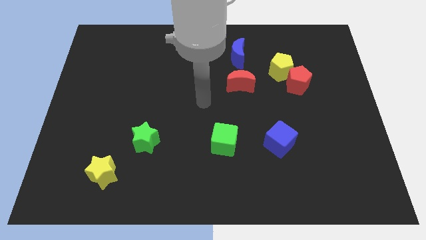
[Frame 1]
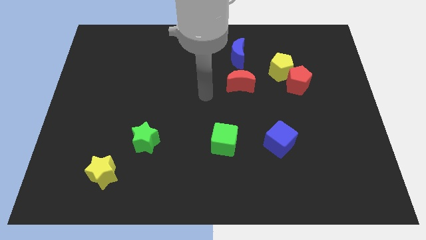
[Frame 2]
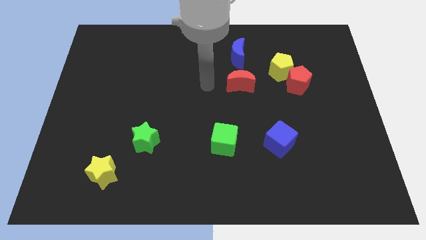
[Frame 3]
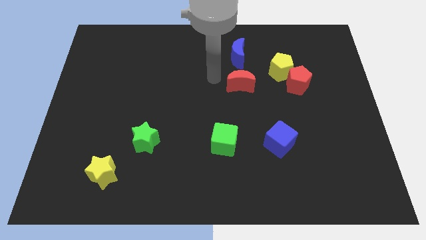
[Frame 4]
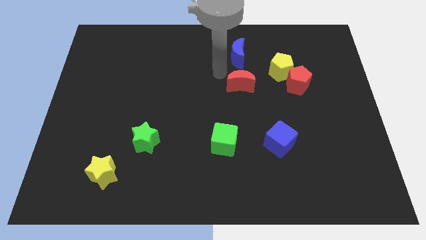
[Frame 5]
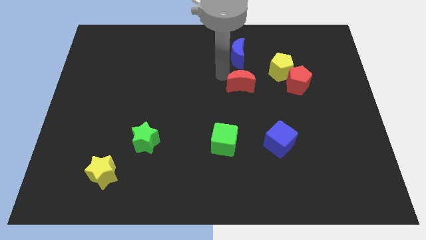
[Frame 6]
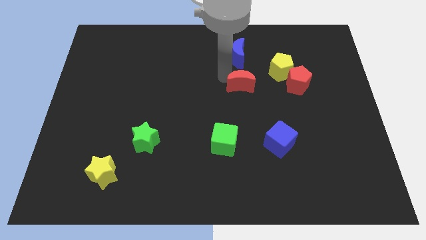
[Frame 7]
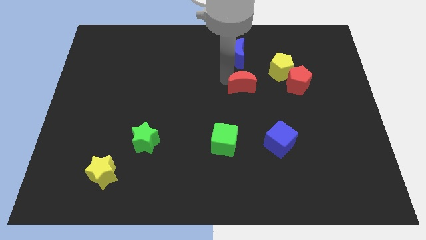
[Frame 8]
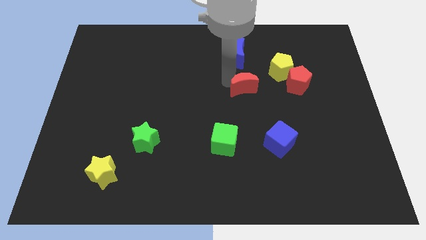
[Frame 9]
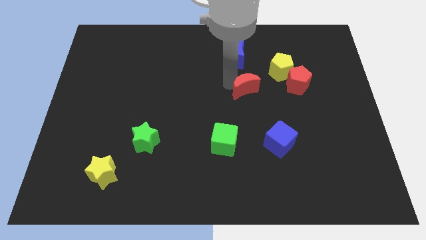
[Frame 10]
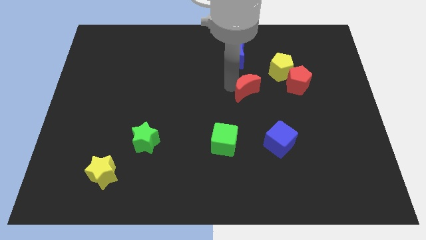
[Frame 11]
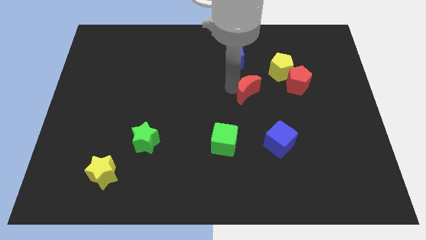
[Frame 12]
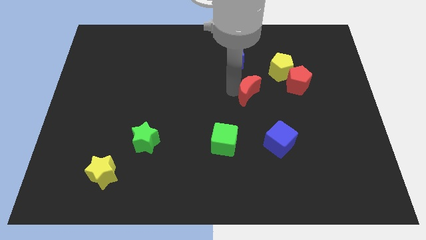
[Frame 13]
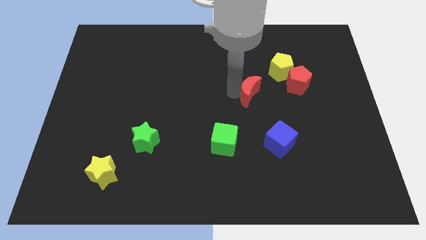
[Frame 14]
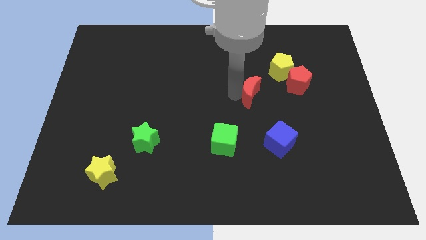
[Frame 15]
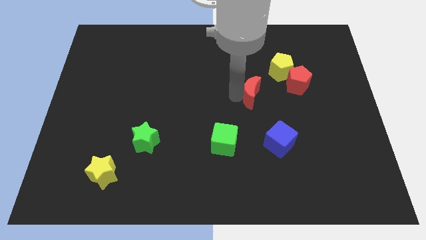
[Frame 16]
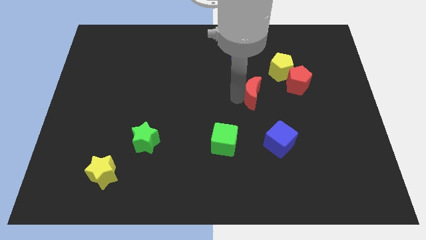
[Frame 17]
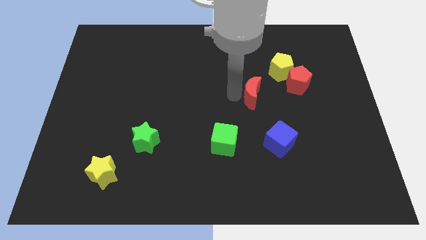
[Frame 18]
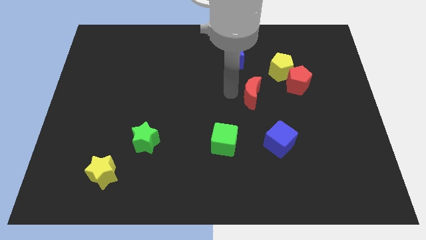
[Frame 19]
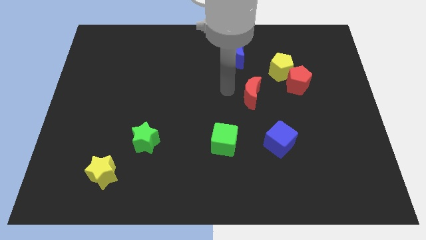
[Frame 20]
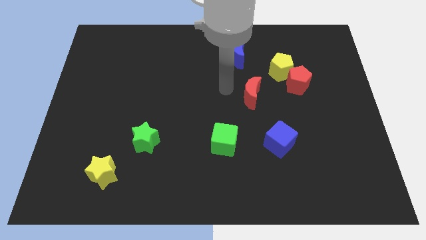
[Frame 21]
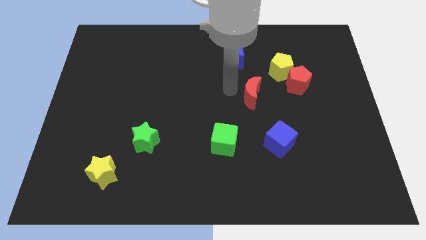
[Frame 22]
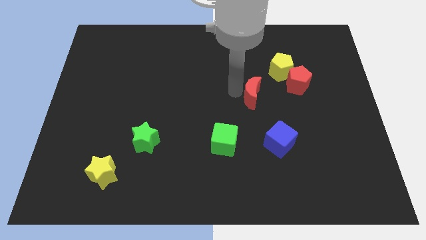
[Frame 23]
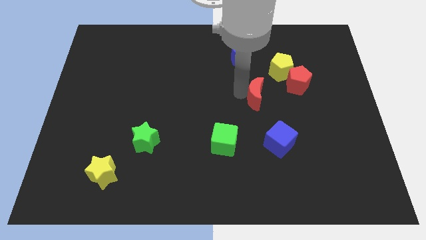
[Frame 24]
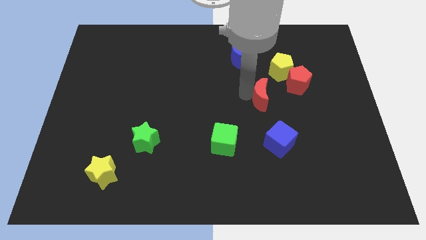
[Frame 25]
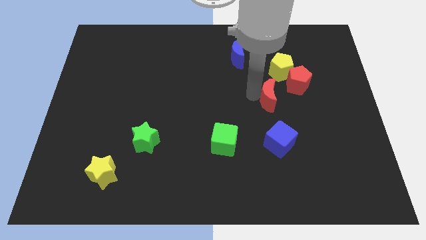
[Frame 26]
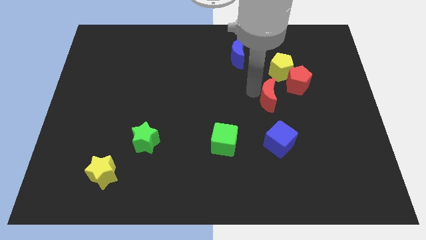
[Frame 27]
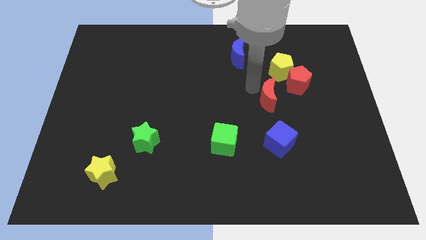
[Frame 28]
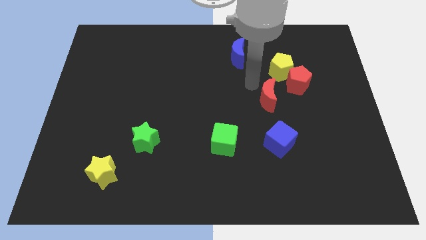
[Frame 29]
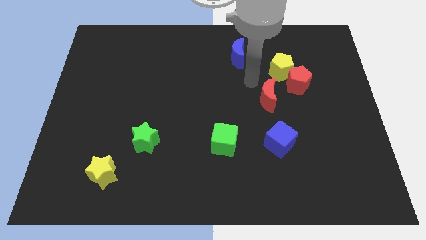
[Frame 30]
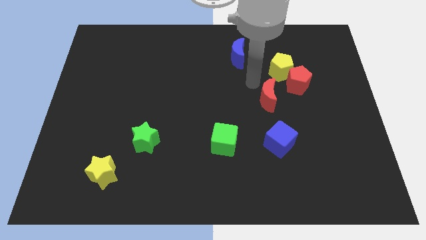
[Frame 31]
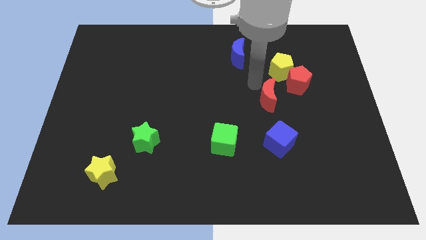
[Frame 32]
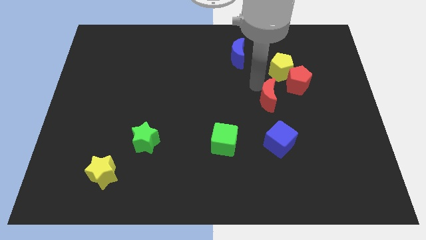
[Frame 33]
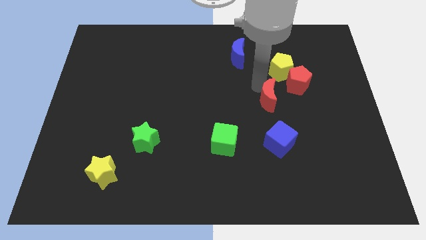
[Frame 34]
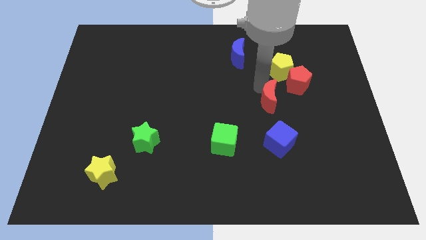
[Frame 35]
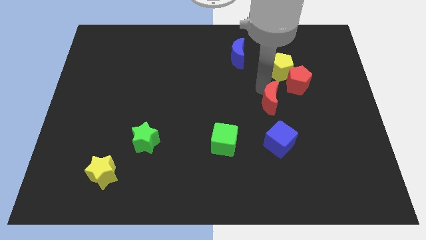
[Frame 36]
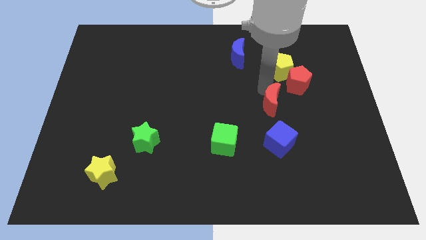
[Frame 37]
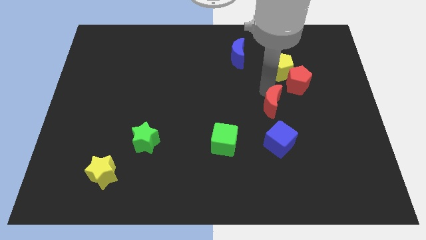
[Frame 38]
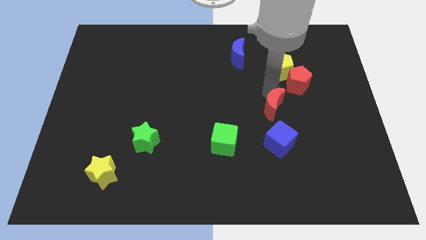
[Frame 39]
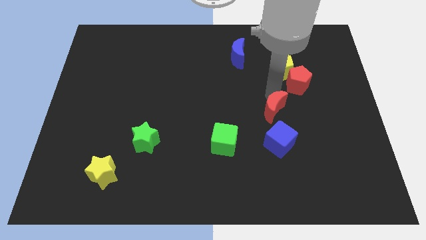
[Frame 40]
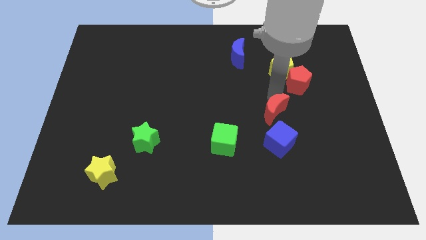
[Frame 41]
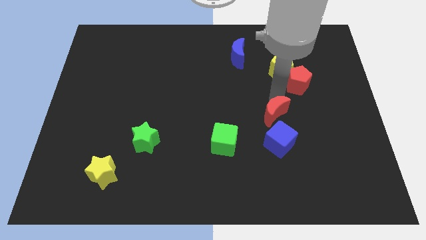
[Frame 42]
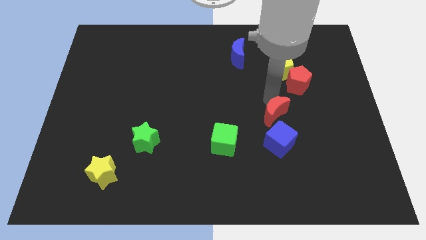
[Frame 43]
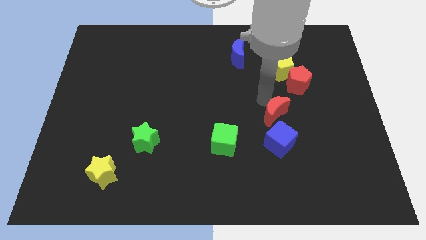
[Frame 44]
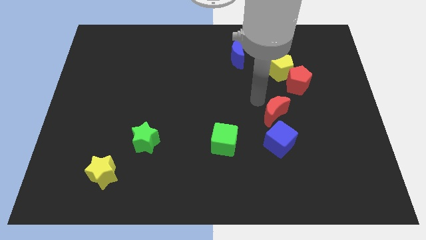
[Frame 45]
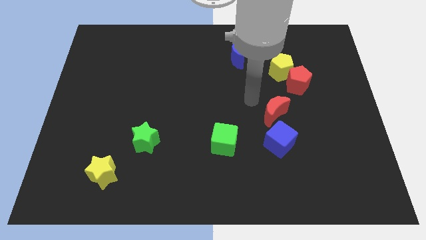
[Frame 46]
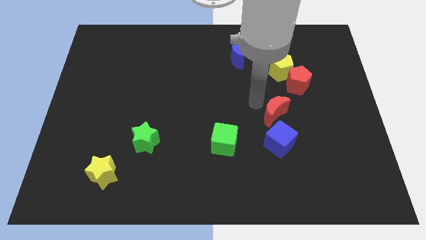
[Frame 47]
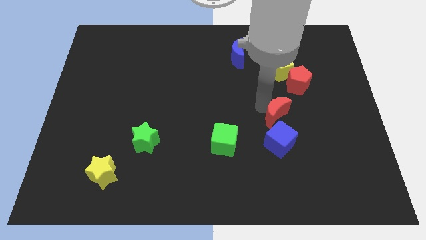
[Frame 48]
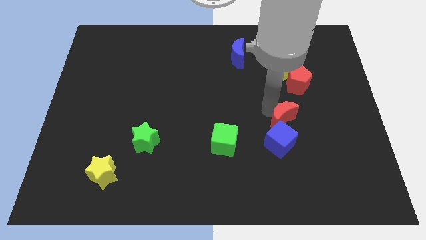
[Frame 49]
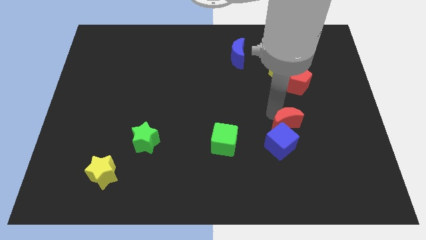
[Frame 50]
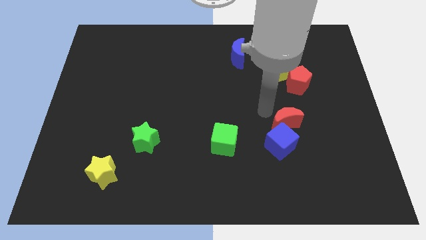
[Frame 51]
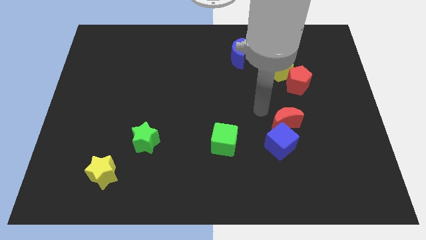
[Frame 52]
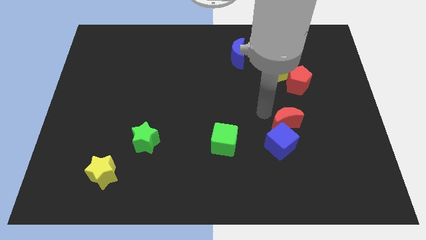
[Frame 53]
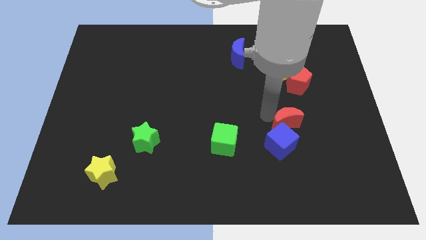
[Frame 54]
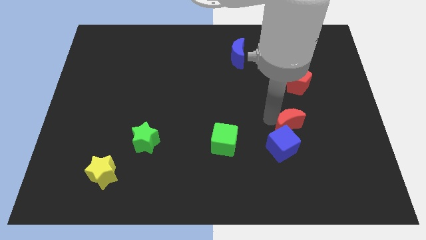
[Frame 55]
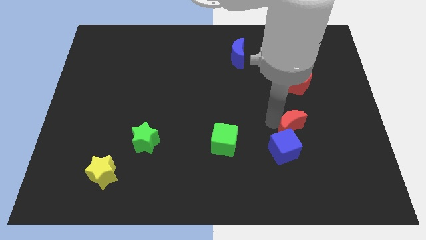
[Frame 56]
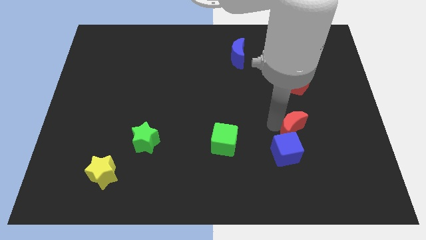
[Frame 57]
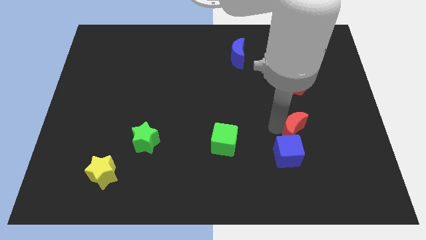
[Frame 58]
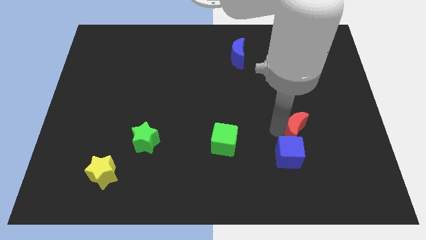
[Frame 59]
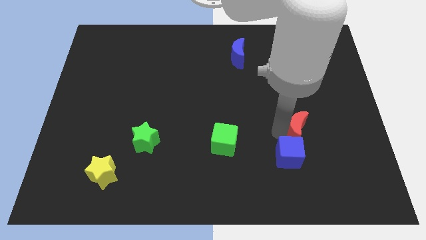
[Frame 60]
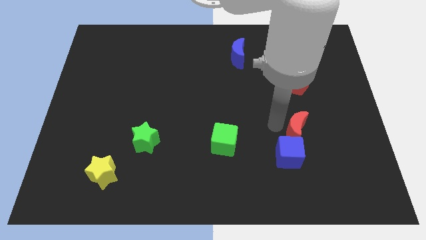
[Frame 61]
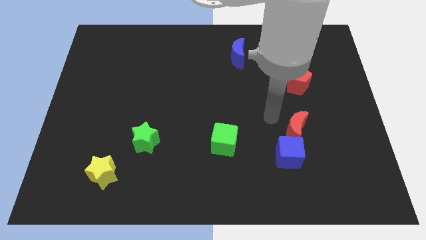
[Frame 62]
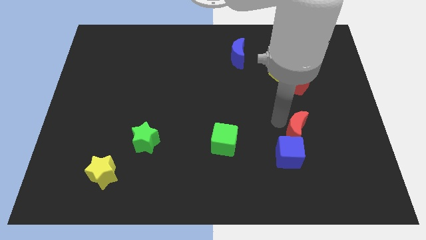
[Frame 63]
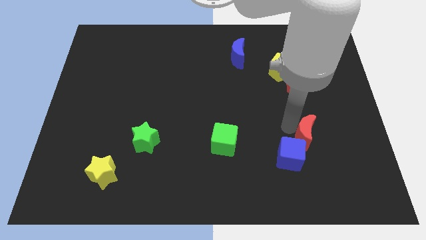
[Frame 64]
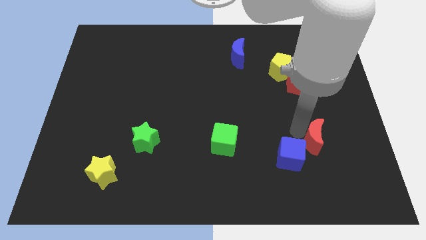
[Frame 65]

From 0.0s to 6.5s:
put the red moon right of the blue cube

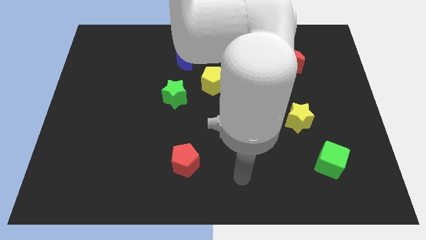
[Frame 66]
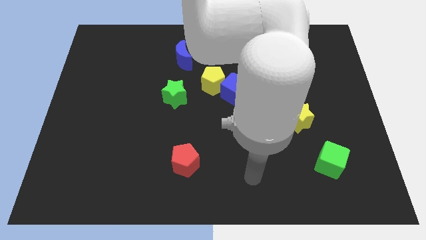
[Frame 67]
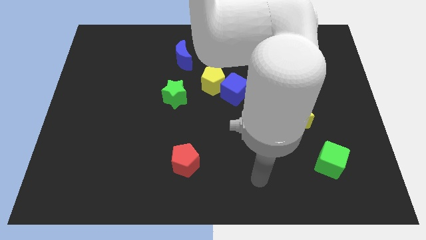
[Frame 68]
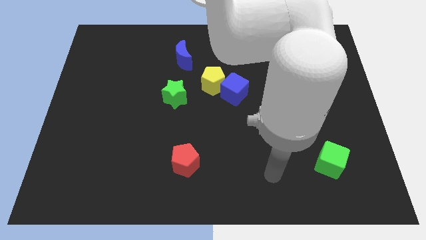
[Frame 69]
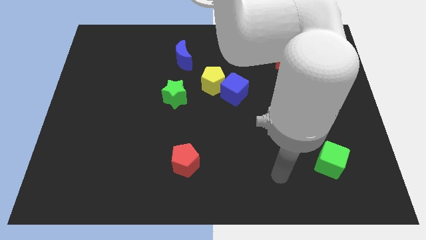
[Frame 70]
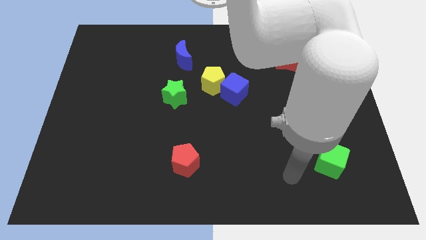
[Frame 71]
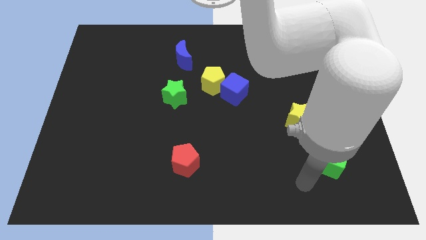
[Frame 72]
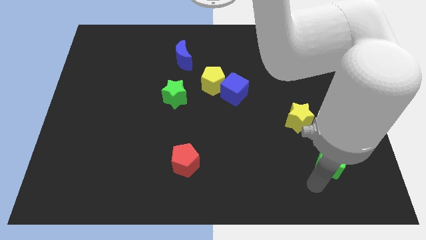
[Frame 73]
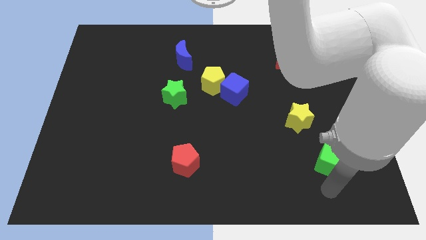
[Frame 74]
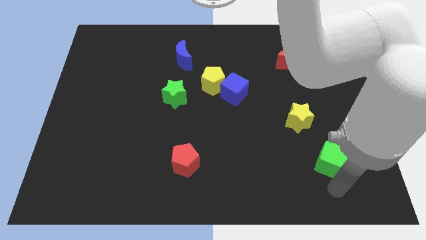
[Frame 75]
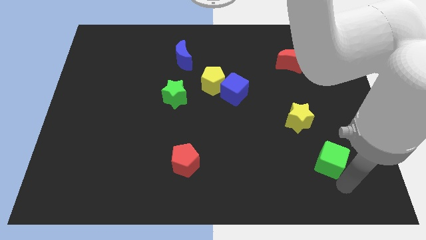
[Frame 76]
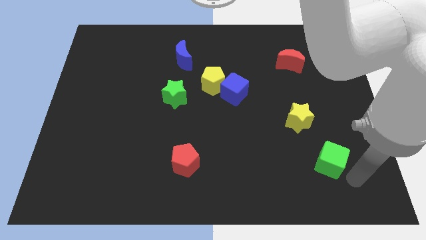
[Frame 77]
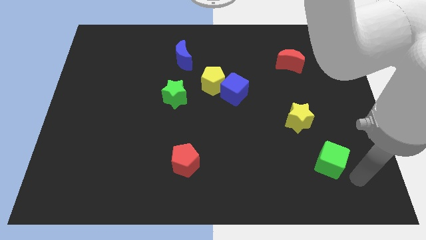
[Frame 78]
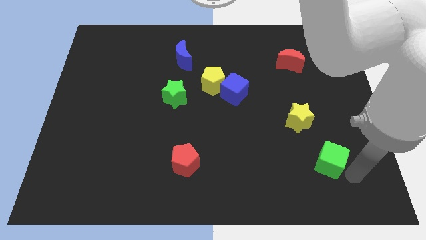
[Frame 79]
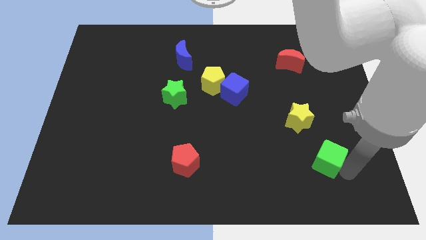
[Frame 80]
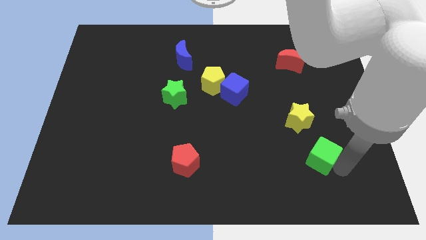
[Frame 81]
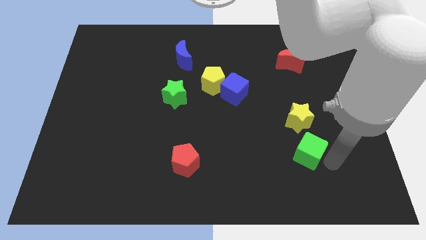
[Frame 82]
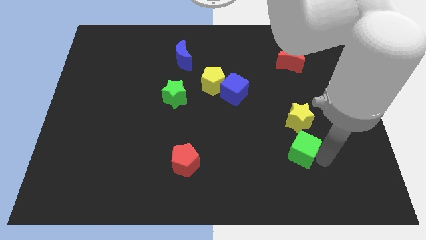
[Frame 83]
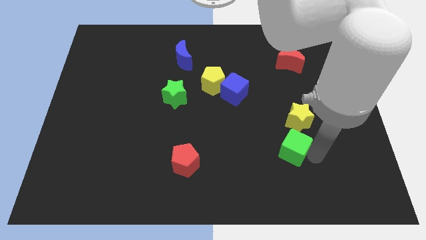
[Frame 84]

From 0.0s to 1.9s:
put the green cube diagonally down and to the left of the yellow star

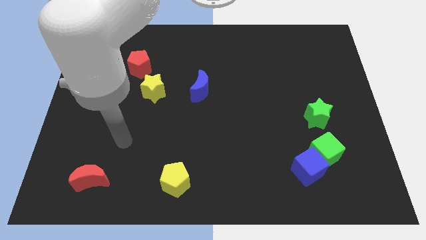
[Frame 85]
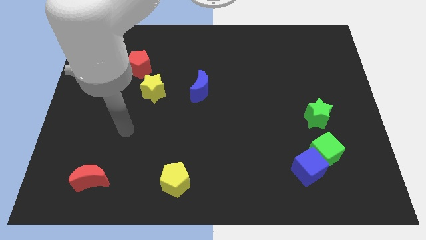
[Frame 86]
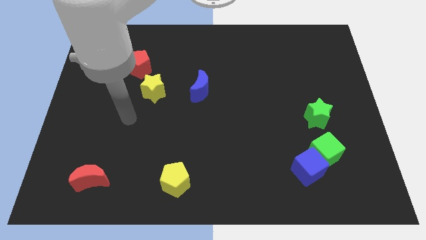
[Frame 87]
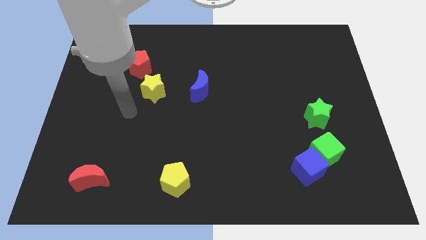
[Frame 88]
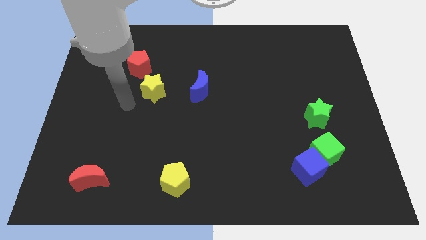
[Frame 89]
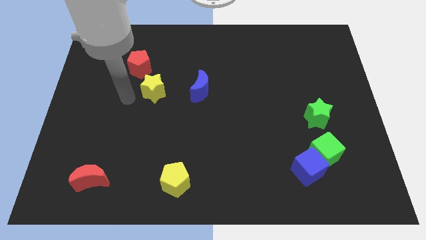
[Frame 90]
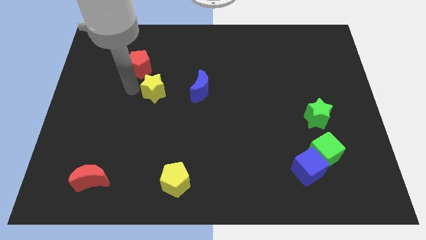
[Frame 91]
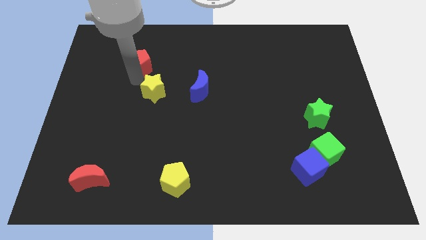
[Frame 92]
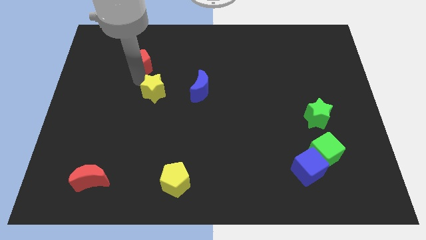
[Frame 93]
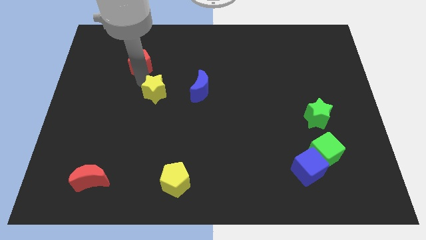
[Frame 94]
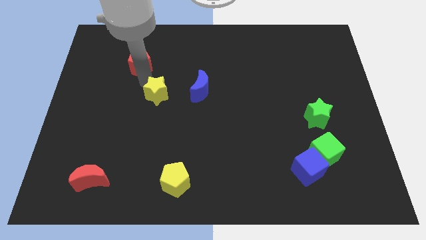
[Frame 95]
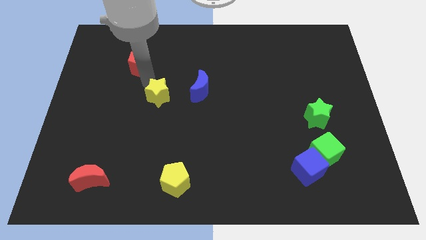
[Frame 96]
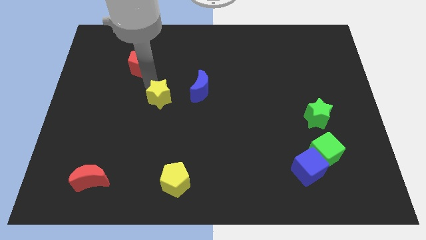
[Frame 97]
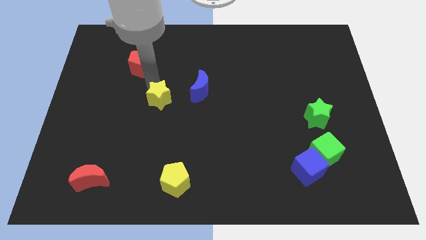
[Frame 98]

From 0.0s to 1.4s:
slide the yellow star to the bottom left side of the blue moon
